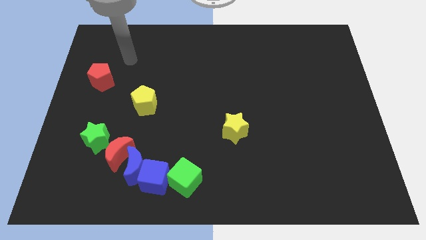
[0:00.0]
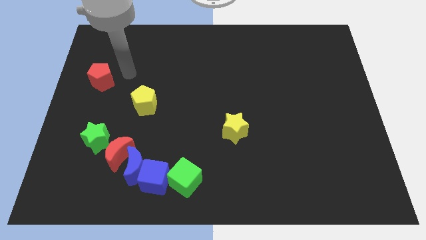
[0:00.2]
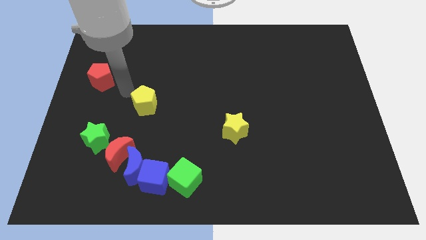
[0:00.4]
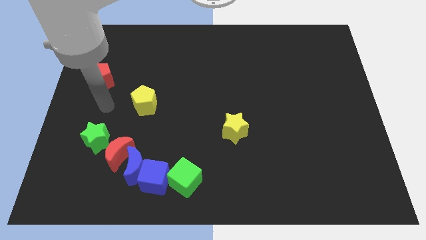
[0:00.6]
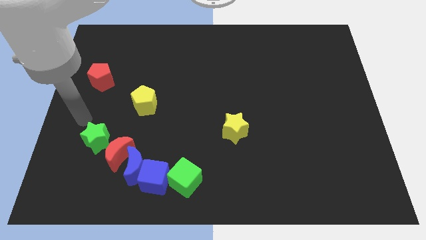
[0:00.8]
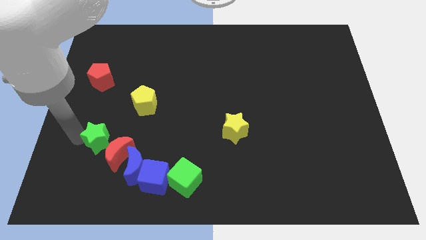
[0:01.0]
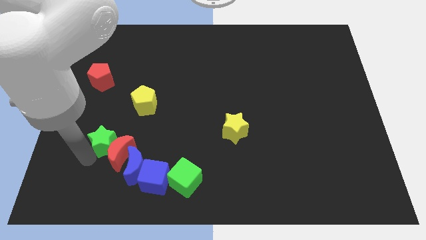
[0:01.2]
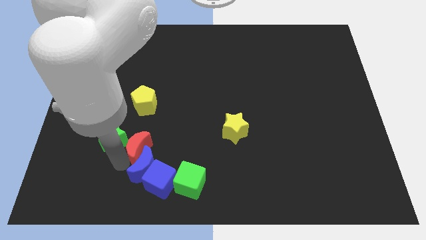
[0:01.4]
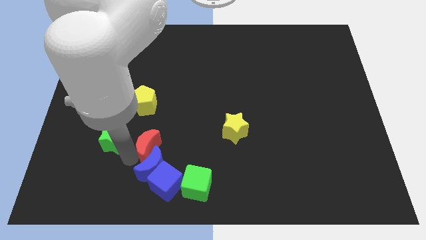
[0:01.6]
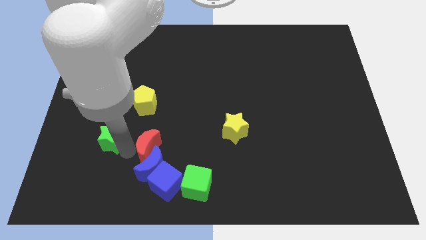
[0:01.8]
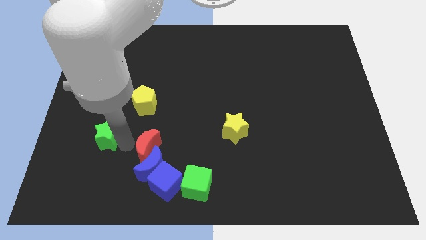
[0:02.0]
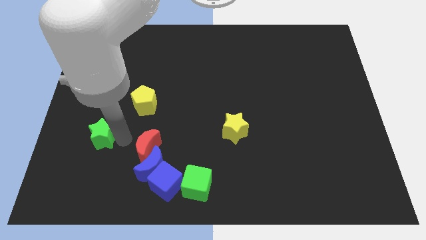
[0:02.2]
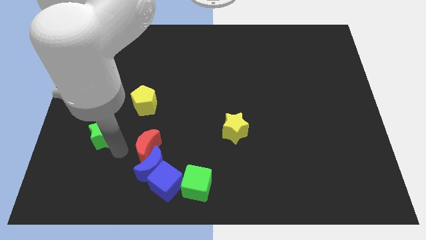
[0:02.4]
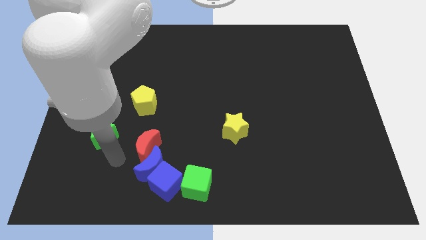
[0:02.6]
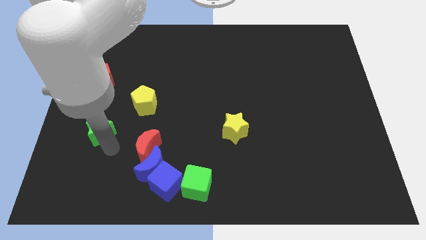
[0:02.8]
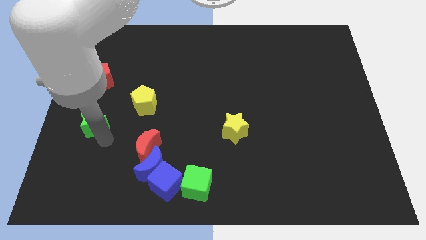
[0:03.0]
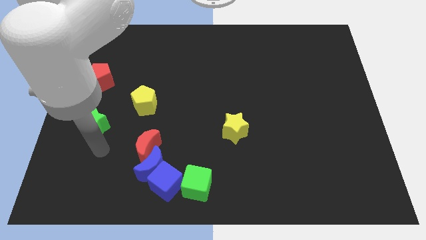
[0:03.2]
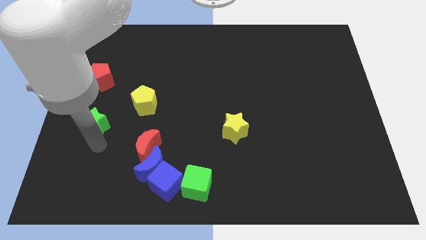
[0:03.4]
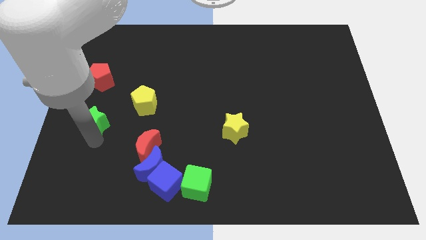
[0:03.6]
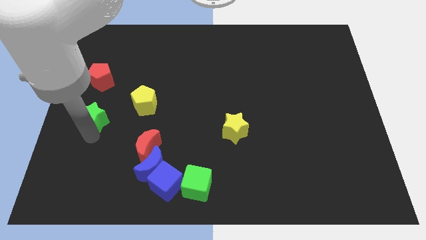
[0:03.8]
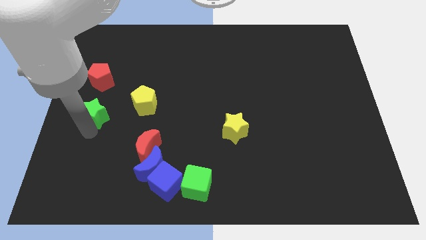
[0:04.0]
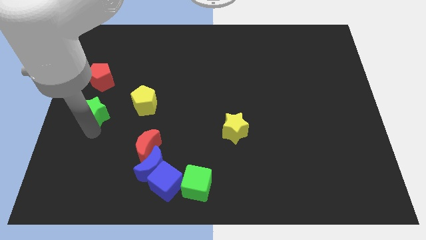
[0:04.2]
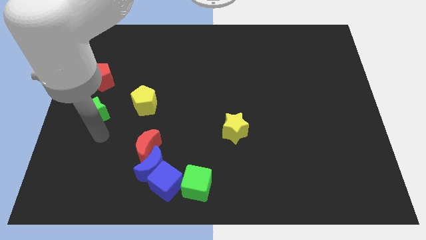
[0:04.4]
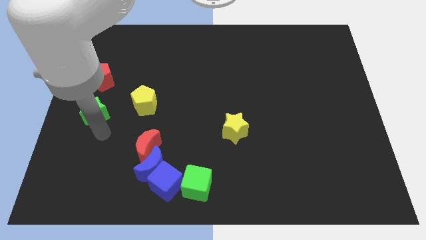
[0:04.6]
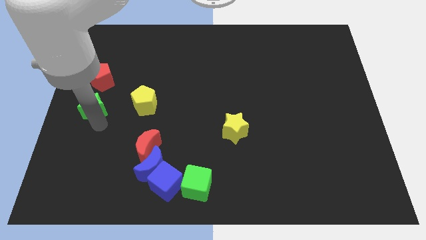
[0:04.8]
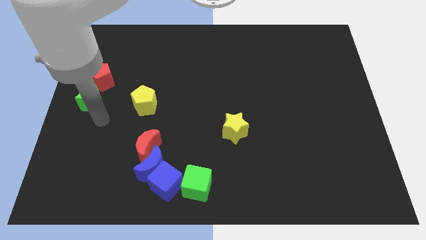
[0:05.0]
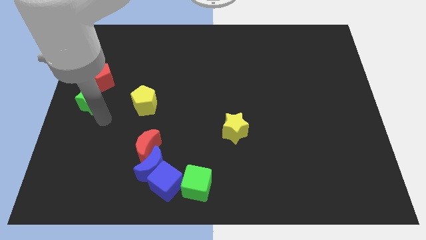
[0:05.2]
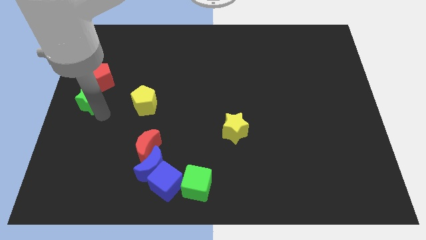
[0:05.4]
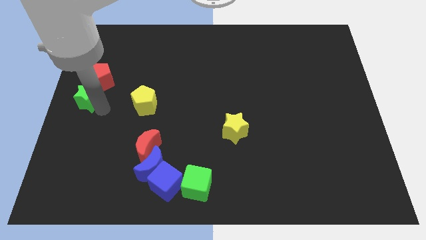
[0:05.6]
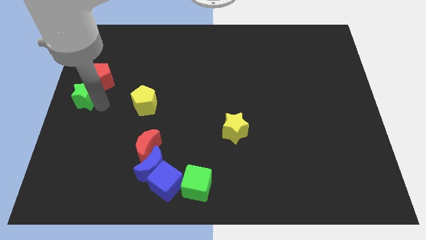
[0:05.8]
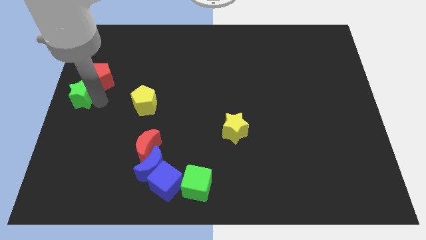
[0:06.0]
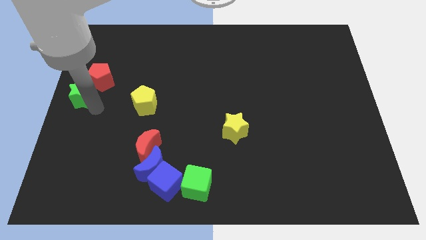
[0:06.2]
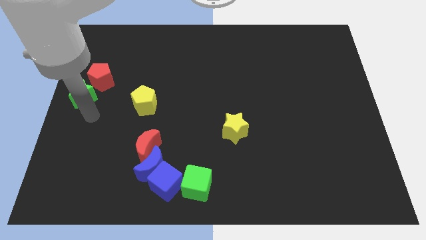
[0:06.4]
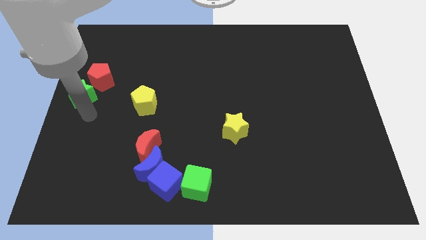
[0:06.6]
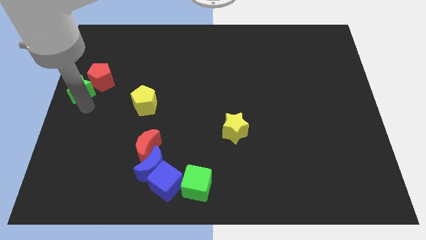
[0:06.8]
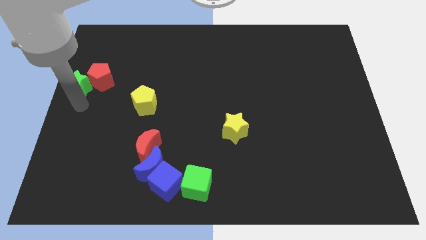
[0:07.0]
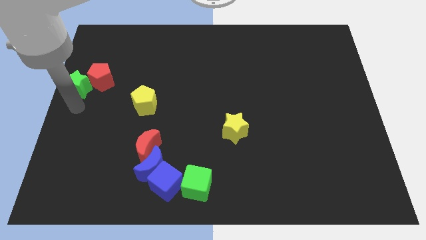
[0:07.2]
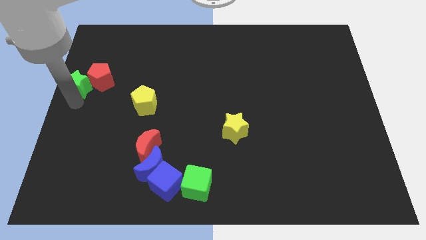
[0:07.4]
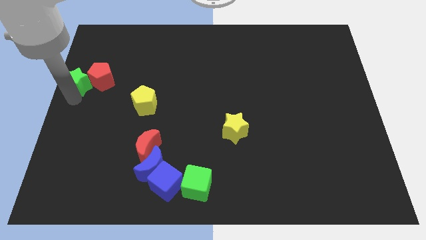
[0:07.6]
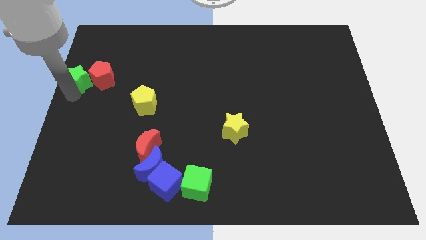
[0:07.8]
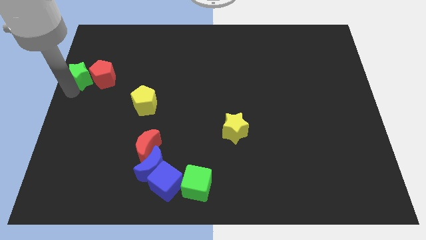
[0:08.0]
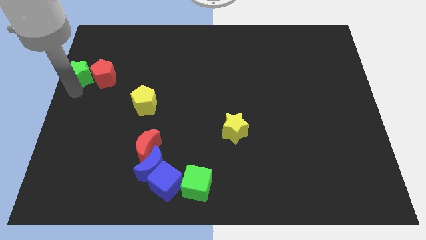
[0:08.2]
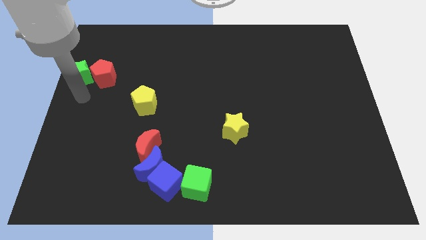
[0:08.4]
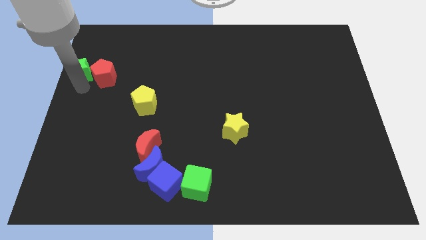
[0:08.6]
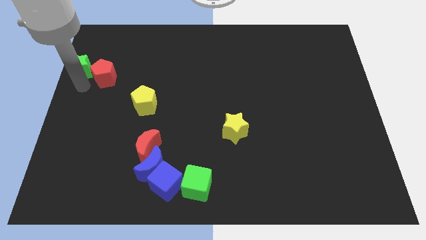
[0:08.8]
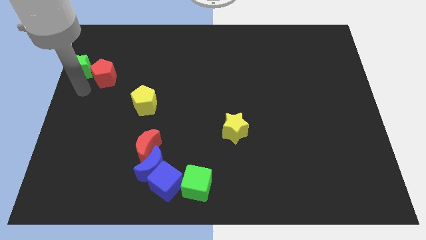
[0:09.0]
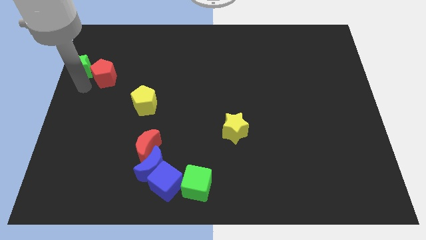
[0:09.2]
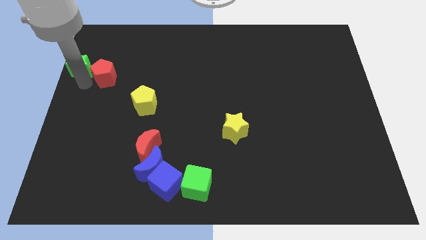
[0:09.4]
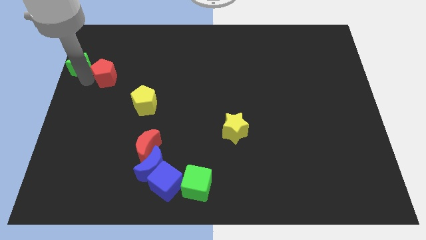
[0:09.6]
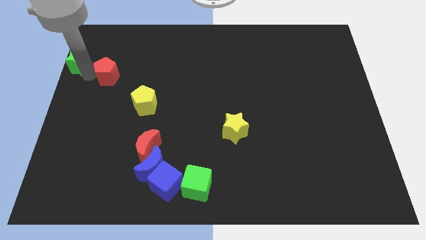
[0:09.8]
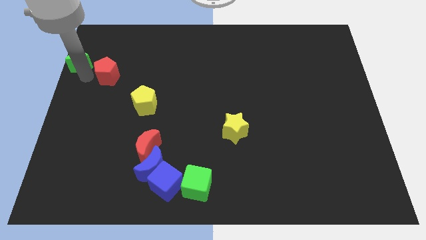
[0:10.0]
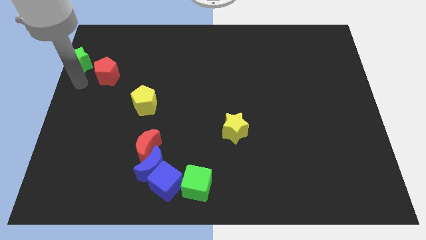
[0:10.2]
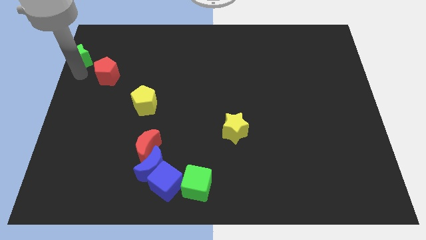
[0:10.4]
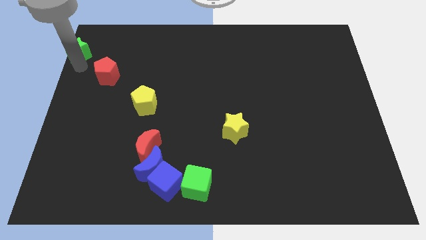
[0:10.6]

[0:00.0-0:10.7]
put the green star to the top left

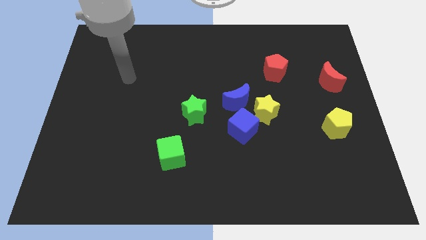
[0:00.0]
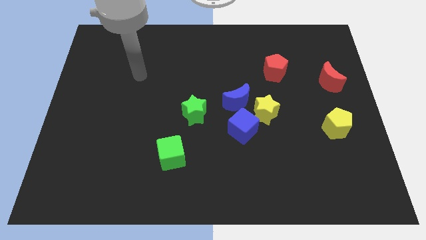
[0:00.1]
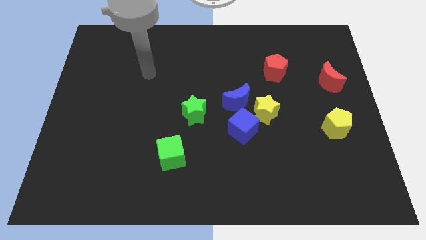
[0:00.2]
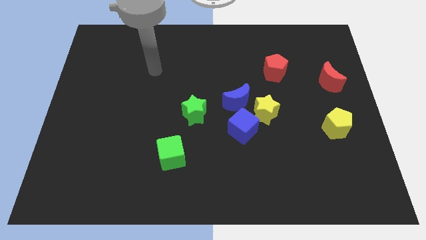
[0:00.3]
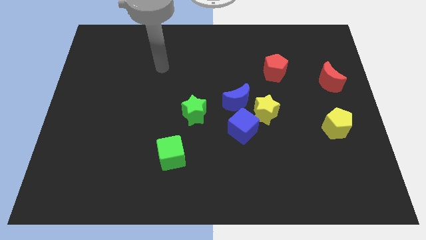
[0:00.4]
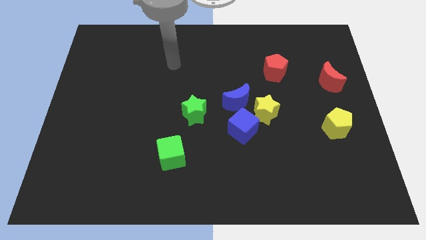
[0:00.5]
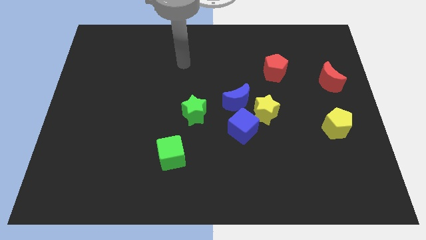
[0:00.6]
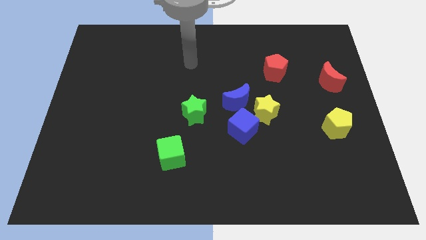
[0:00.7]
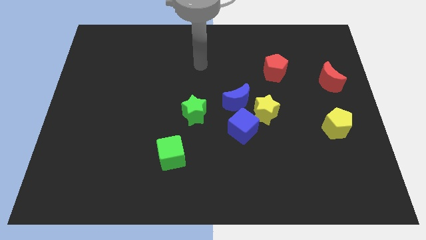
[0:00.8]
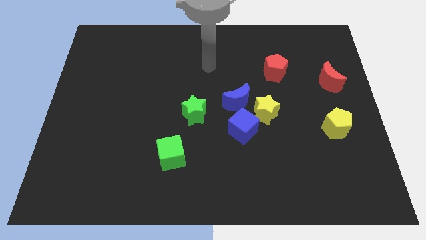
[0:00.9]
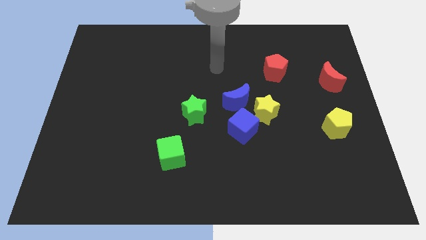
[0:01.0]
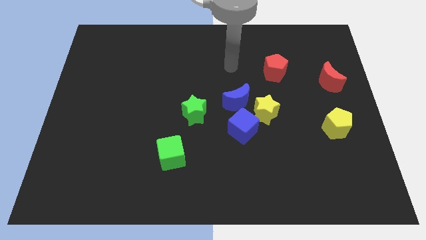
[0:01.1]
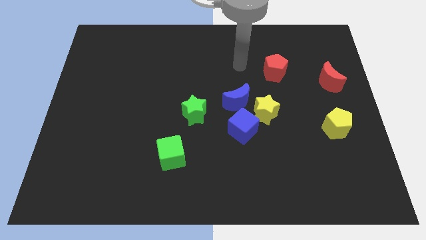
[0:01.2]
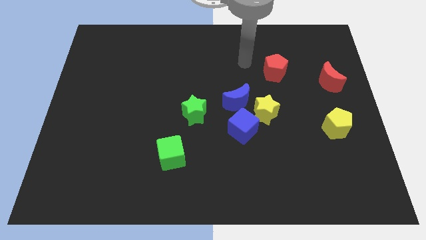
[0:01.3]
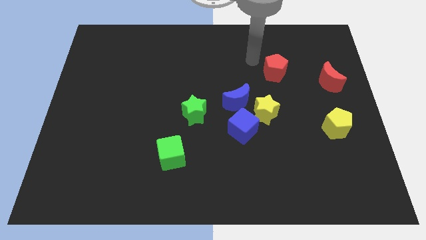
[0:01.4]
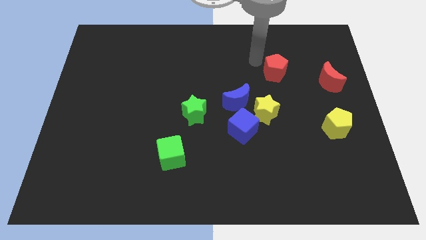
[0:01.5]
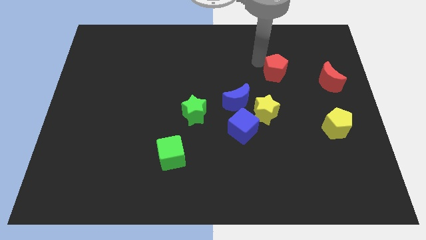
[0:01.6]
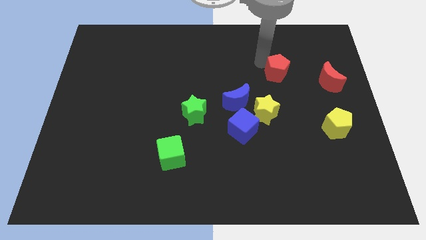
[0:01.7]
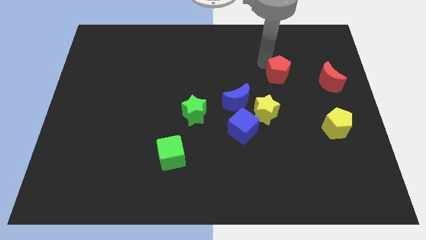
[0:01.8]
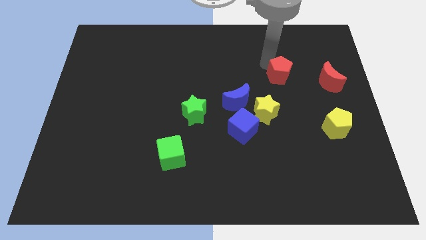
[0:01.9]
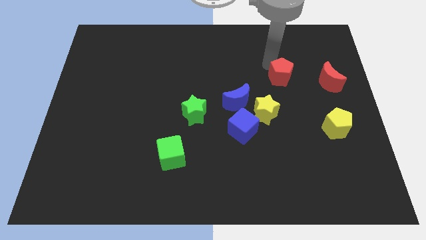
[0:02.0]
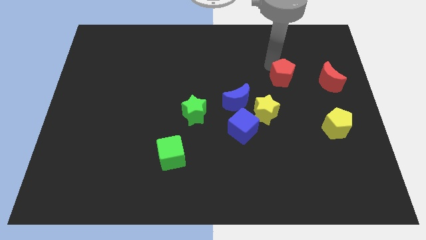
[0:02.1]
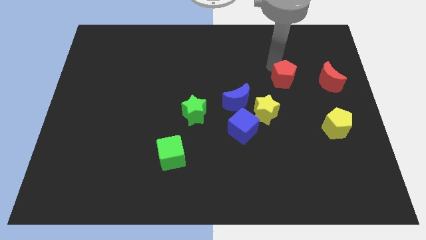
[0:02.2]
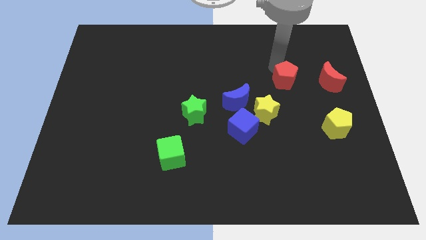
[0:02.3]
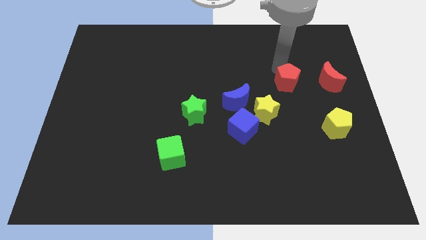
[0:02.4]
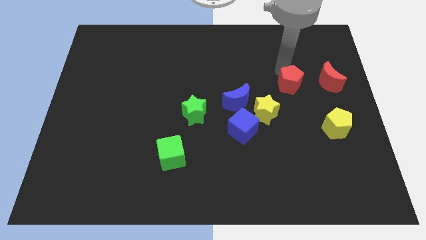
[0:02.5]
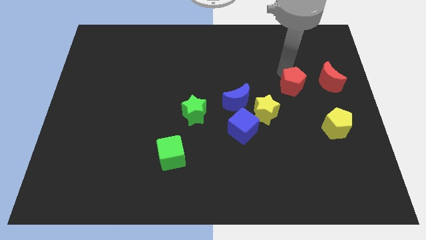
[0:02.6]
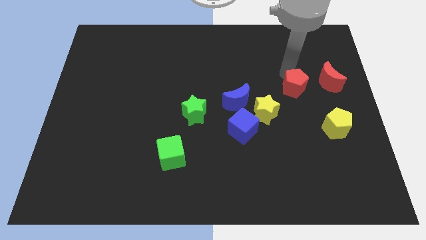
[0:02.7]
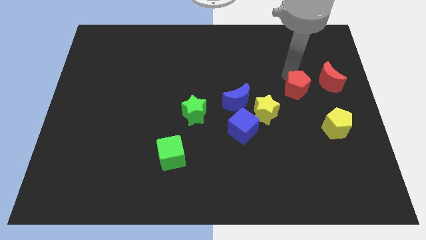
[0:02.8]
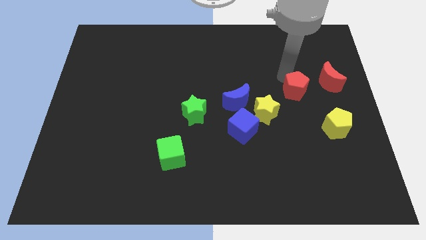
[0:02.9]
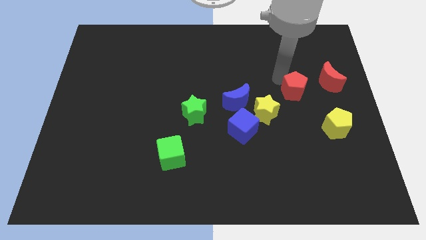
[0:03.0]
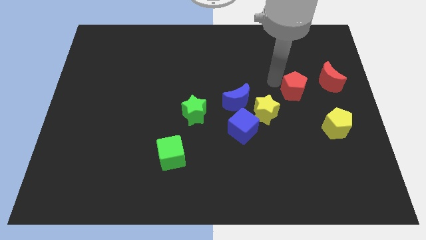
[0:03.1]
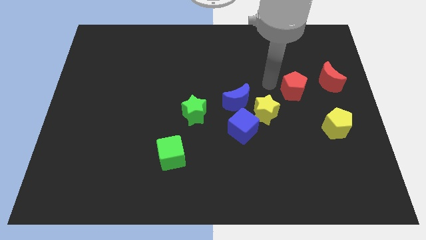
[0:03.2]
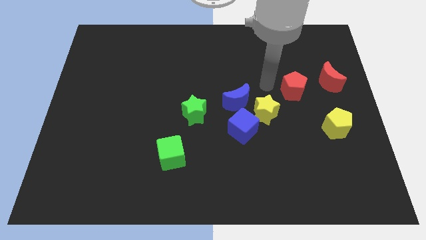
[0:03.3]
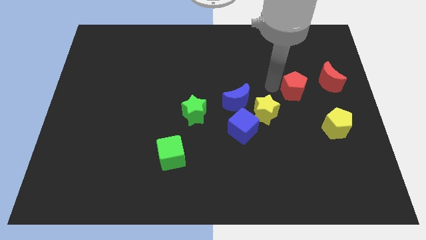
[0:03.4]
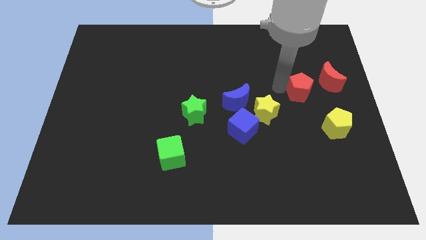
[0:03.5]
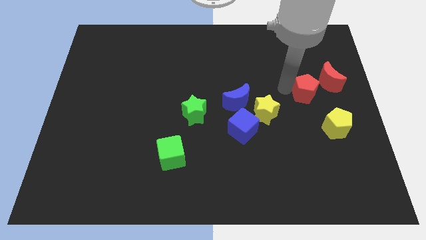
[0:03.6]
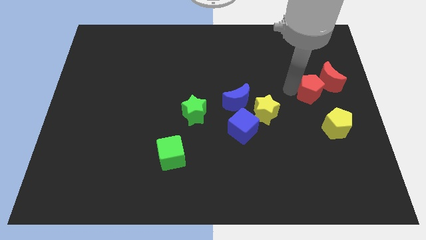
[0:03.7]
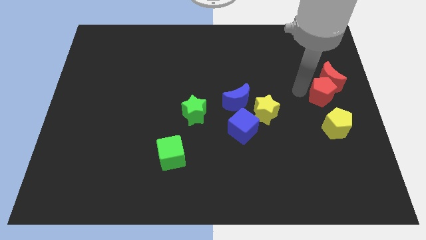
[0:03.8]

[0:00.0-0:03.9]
slide the red pentagon to the right side
